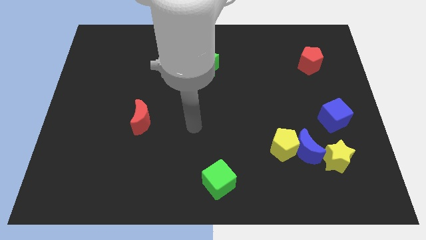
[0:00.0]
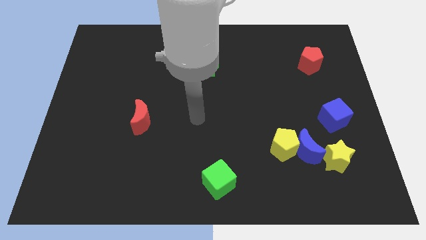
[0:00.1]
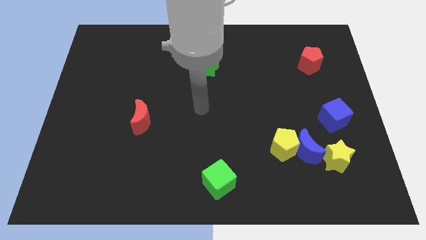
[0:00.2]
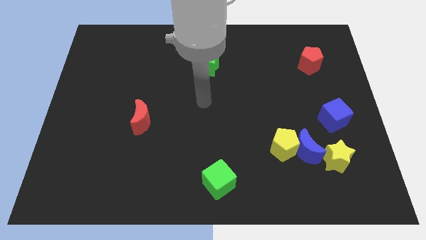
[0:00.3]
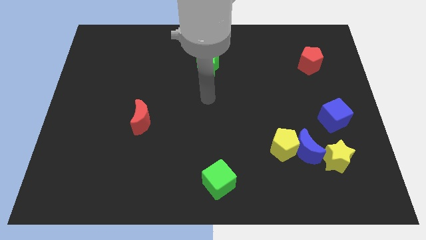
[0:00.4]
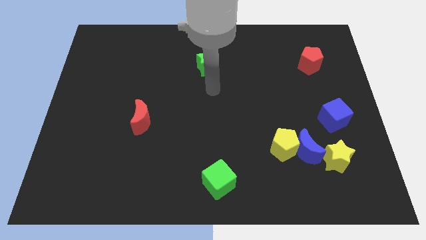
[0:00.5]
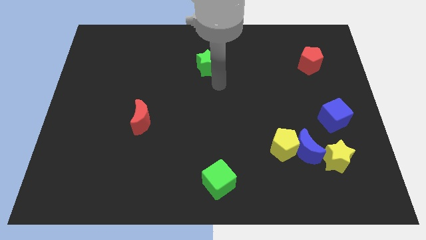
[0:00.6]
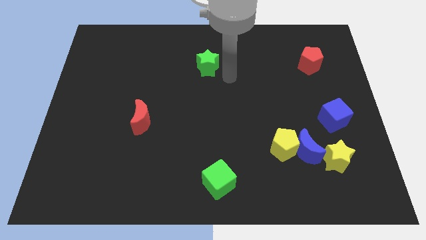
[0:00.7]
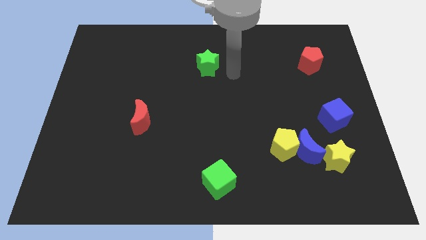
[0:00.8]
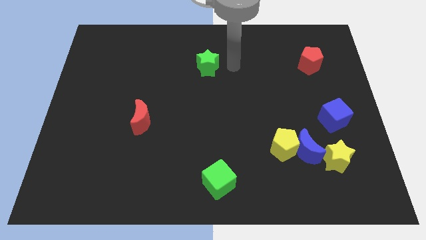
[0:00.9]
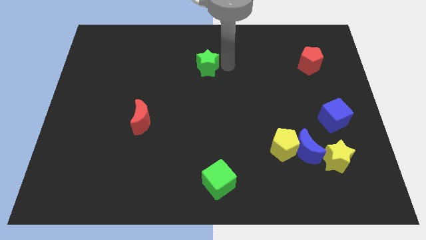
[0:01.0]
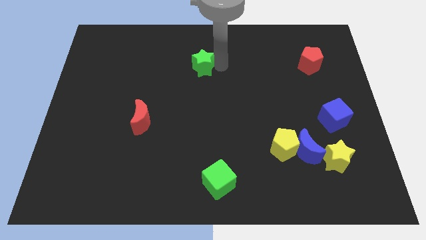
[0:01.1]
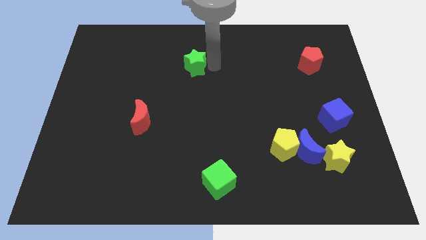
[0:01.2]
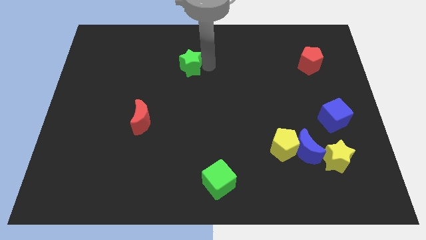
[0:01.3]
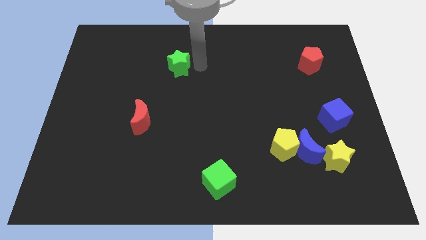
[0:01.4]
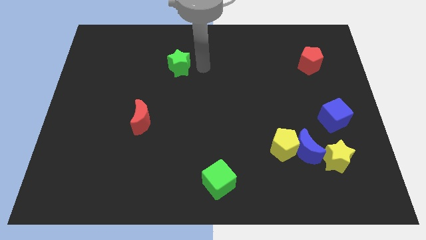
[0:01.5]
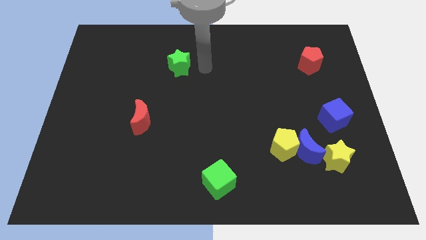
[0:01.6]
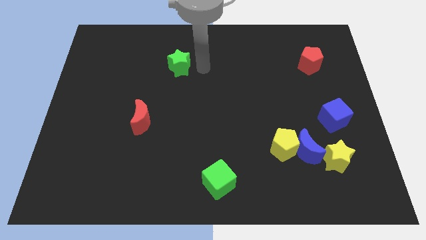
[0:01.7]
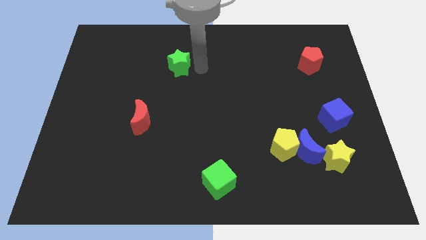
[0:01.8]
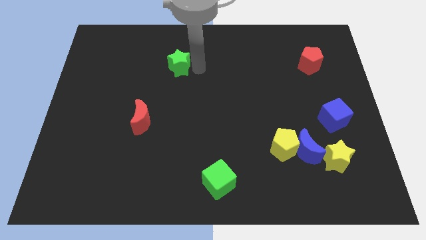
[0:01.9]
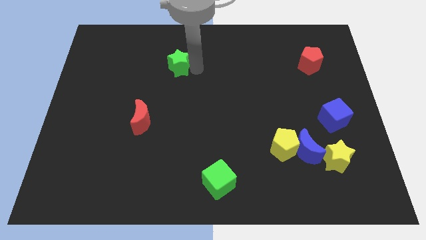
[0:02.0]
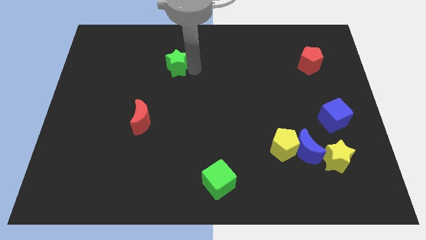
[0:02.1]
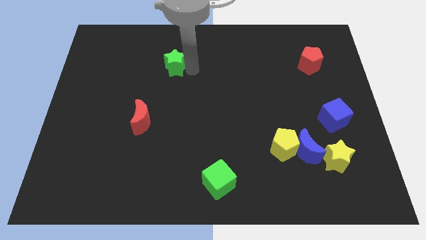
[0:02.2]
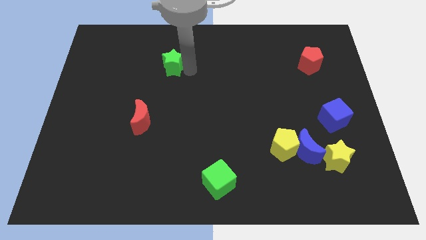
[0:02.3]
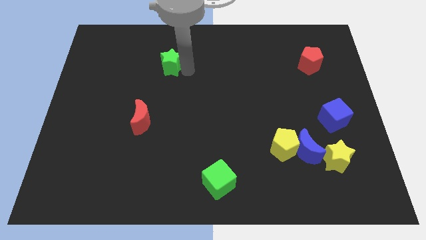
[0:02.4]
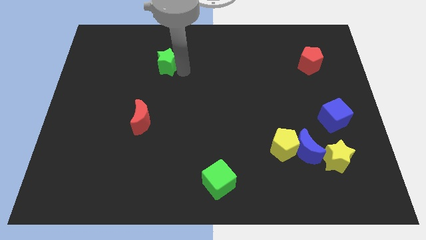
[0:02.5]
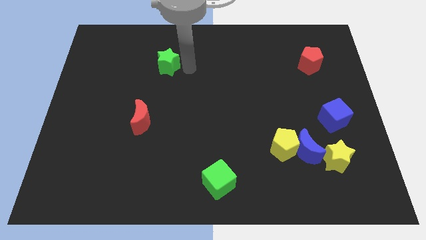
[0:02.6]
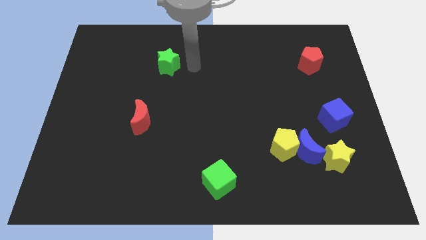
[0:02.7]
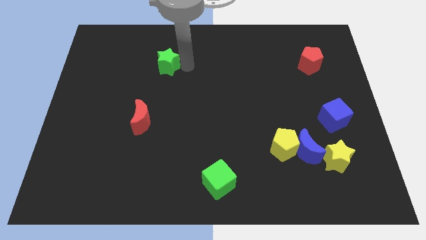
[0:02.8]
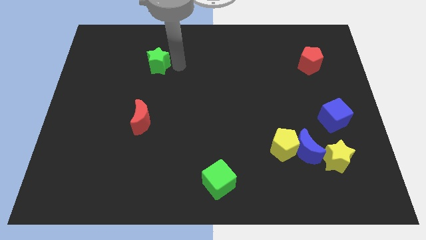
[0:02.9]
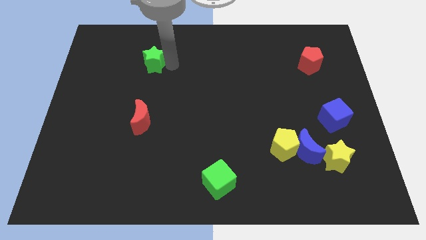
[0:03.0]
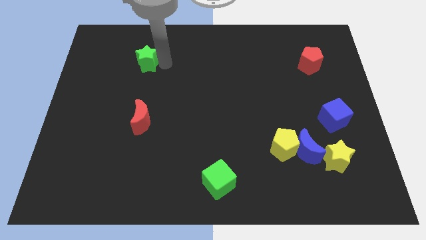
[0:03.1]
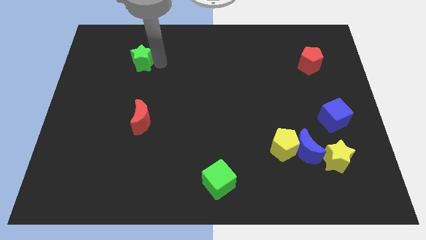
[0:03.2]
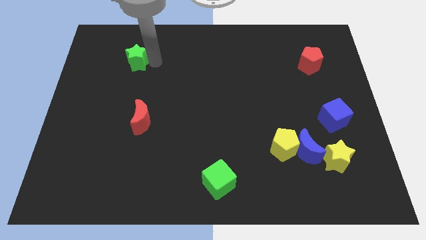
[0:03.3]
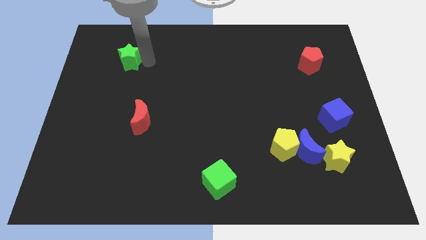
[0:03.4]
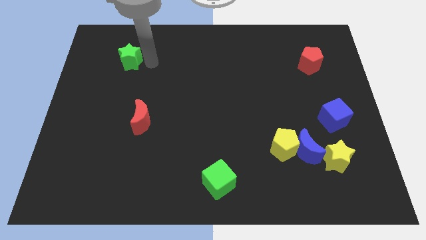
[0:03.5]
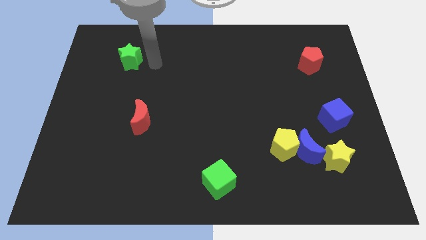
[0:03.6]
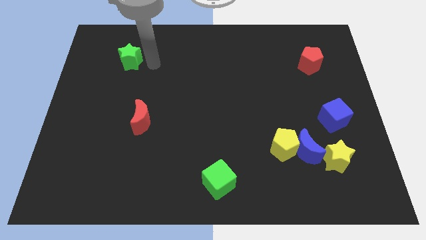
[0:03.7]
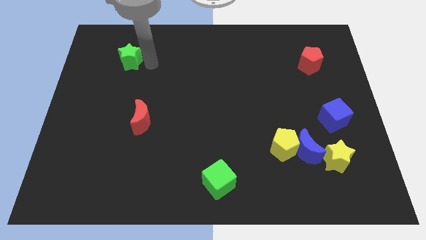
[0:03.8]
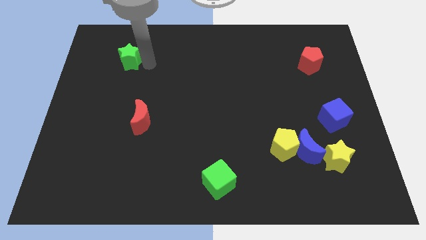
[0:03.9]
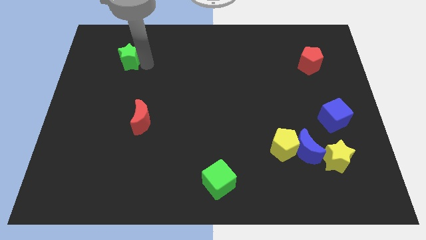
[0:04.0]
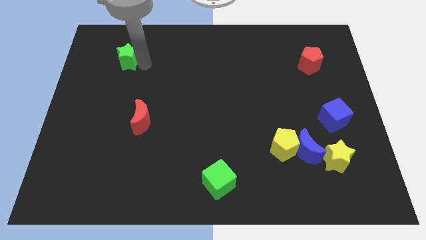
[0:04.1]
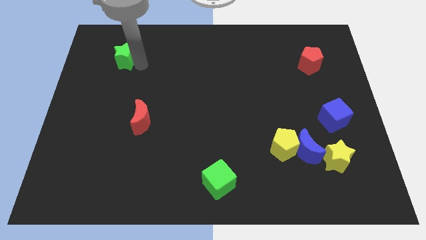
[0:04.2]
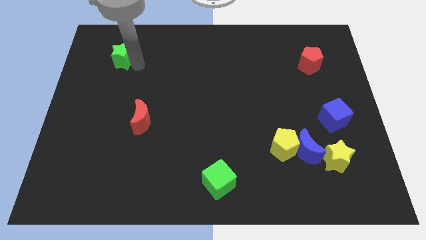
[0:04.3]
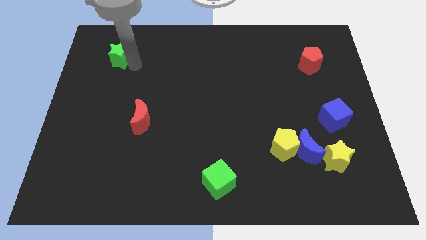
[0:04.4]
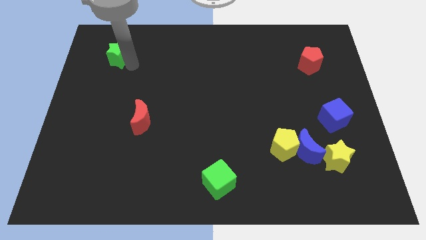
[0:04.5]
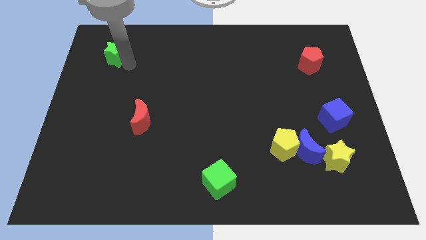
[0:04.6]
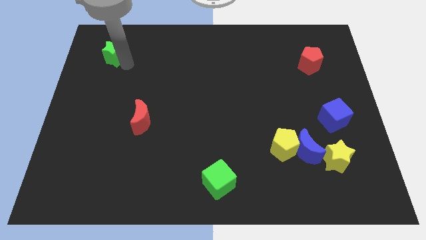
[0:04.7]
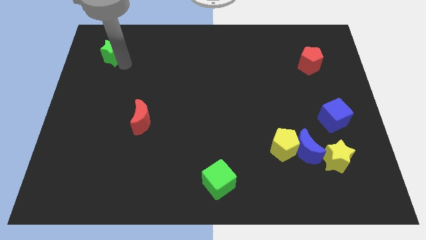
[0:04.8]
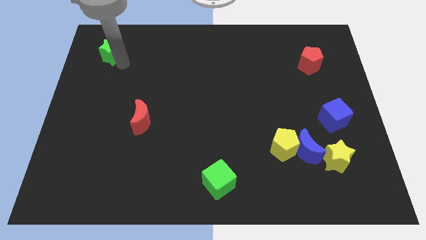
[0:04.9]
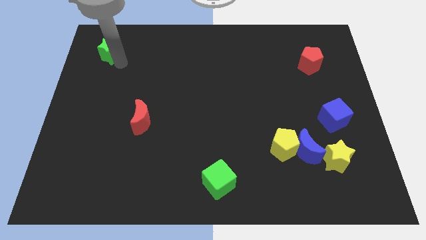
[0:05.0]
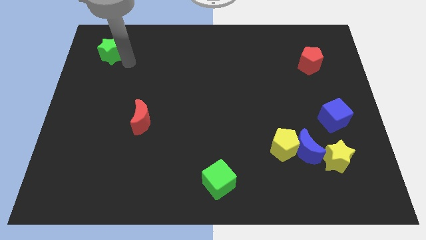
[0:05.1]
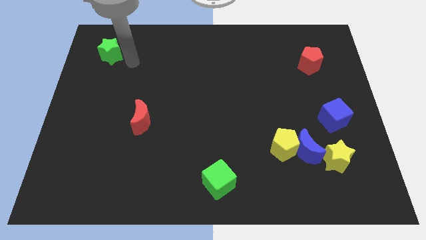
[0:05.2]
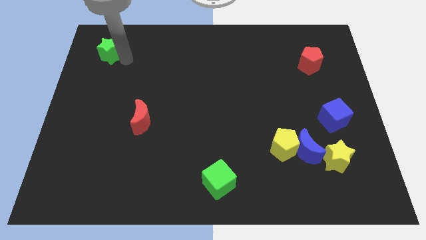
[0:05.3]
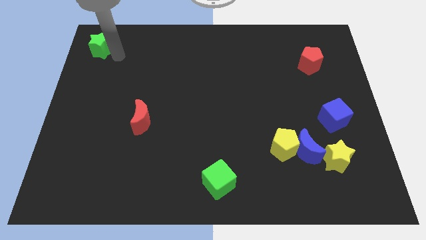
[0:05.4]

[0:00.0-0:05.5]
put the green star to the upper left corner

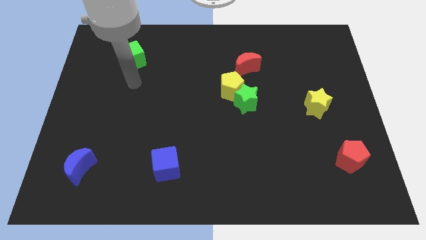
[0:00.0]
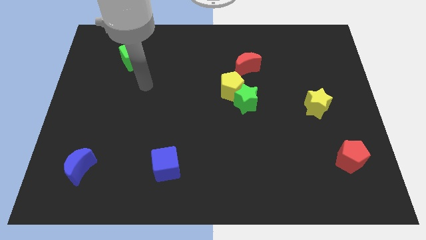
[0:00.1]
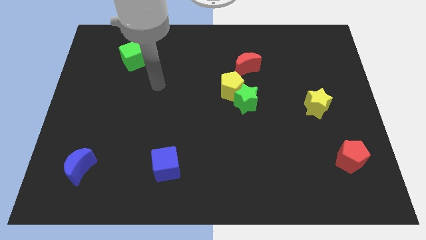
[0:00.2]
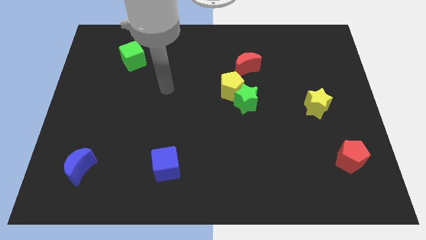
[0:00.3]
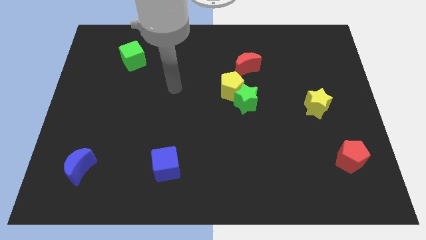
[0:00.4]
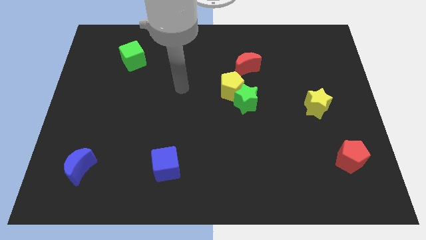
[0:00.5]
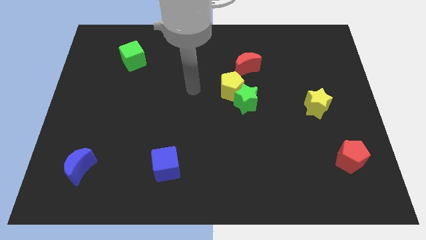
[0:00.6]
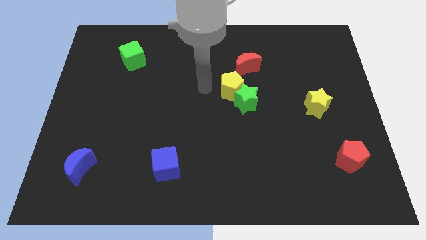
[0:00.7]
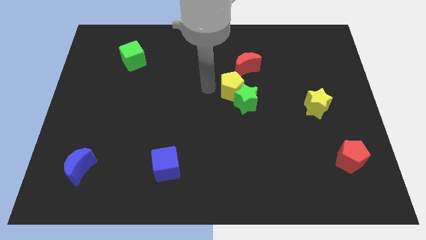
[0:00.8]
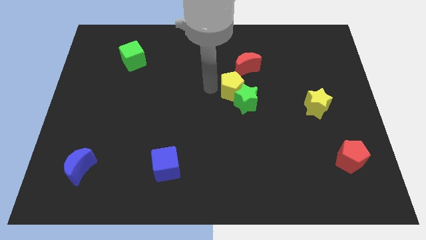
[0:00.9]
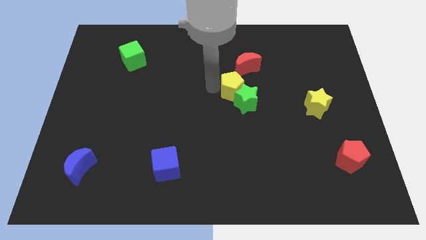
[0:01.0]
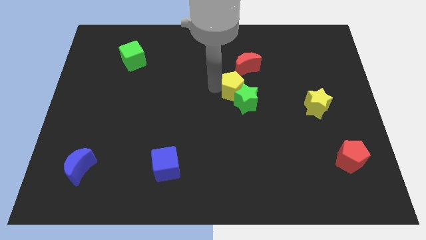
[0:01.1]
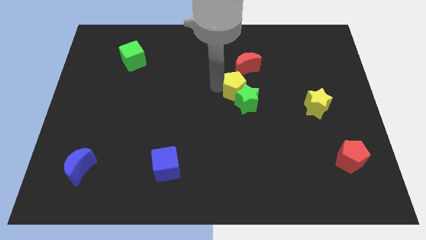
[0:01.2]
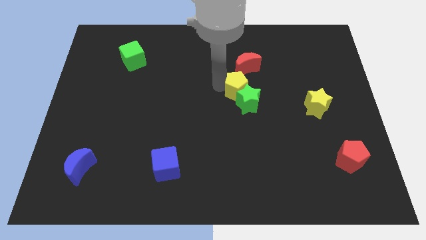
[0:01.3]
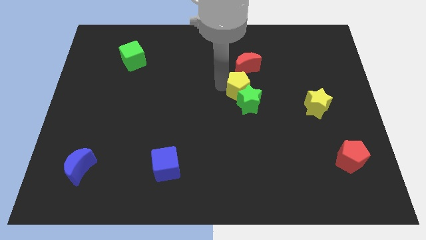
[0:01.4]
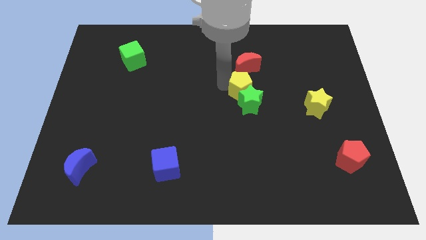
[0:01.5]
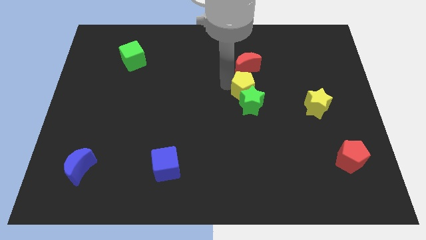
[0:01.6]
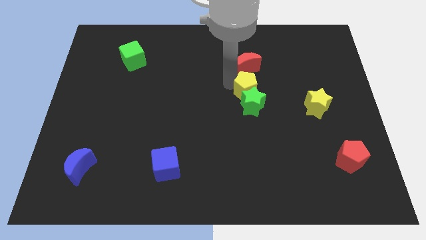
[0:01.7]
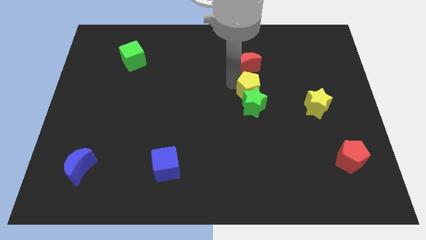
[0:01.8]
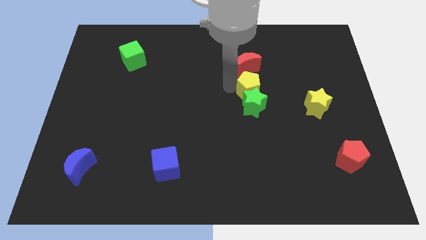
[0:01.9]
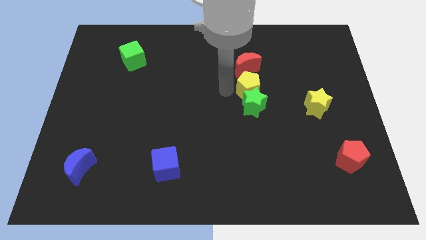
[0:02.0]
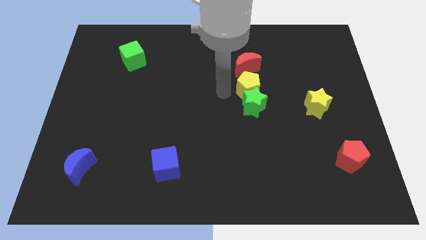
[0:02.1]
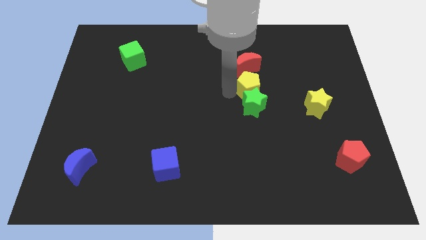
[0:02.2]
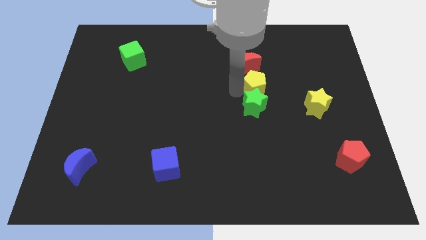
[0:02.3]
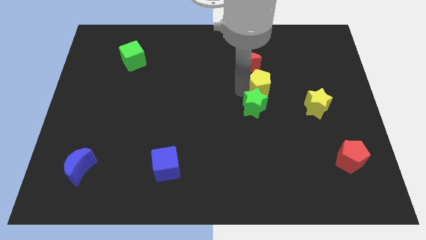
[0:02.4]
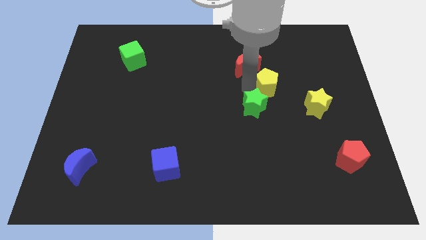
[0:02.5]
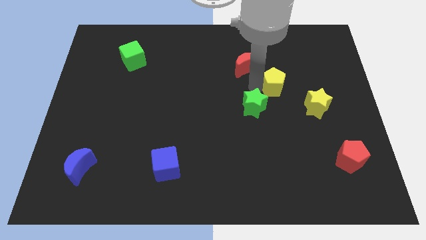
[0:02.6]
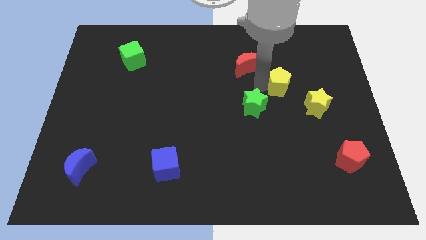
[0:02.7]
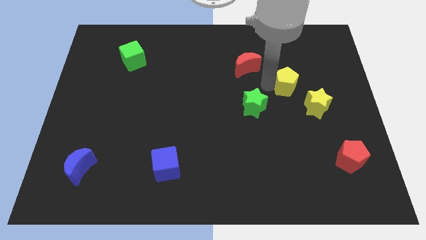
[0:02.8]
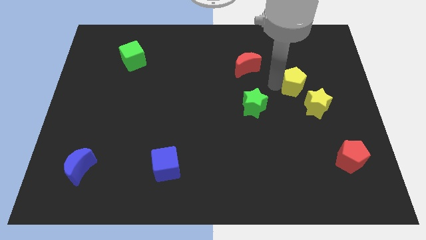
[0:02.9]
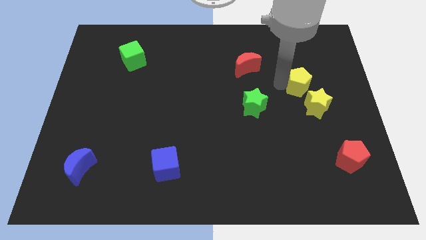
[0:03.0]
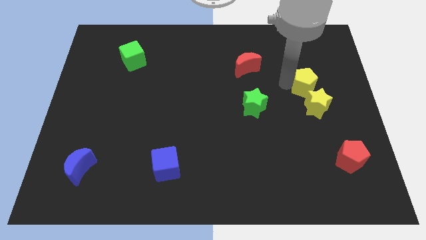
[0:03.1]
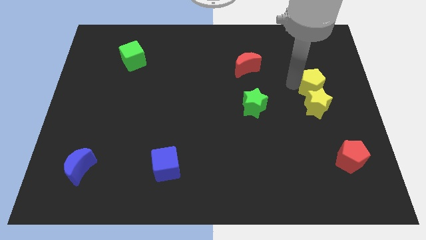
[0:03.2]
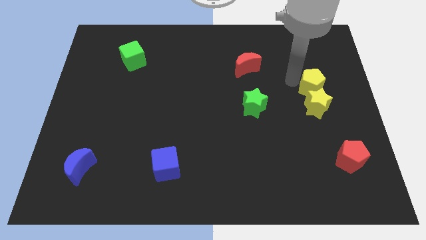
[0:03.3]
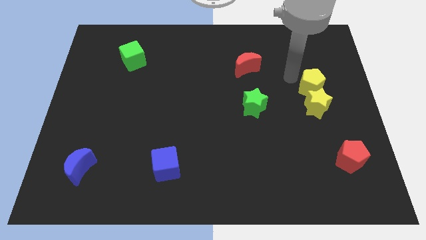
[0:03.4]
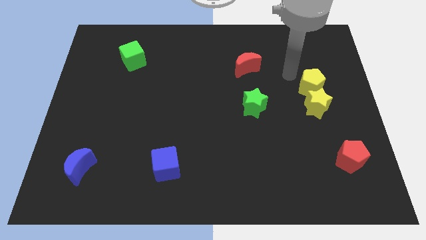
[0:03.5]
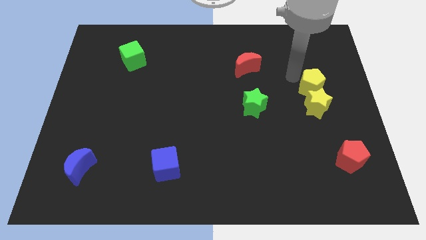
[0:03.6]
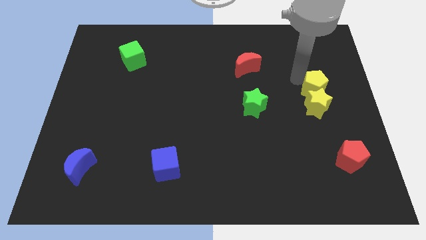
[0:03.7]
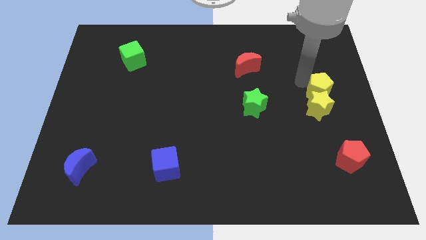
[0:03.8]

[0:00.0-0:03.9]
push the yellow pentagon to the right side
